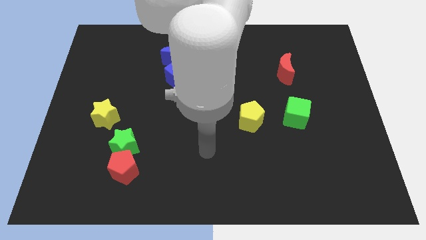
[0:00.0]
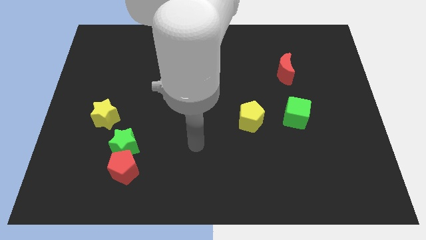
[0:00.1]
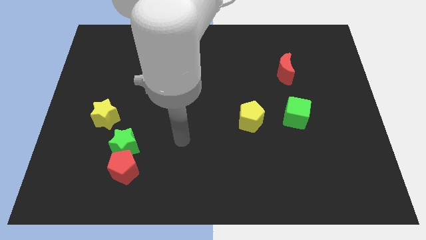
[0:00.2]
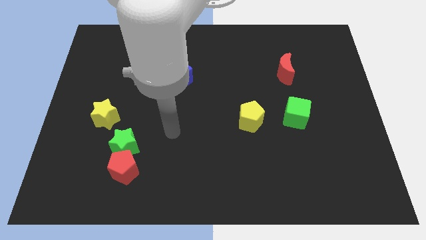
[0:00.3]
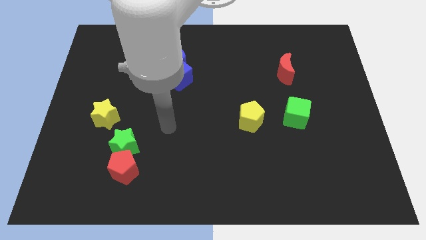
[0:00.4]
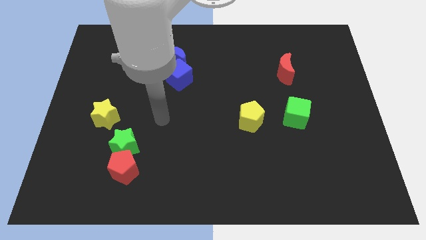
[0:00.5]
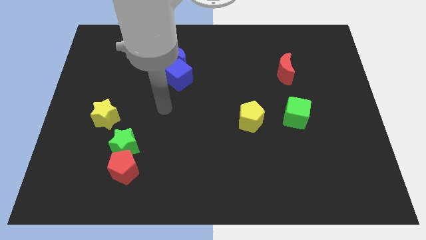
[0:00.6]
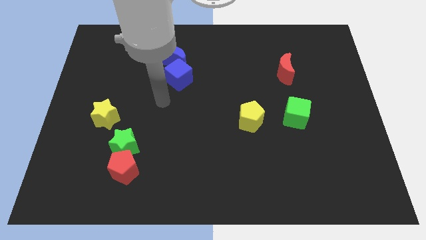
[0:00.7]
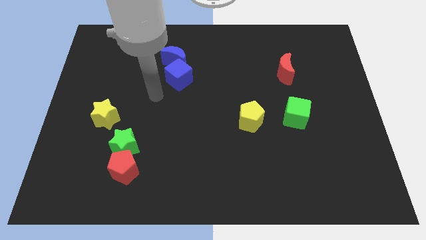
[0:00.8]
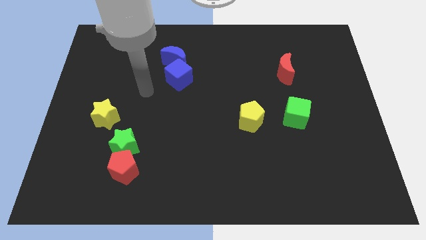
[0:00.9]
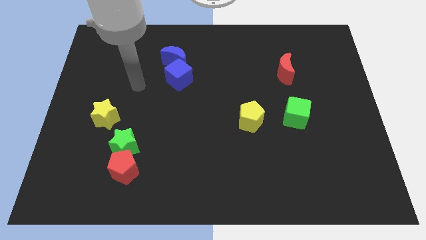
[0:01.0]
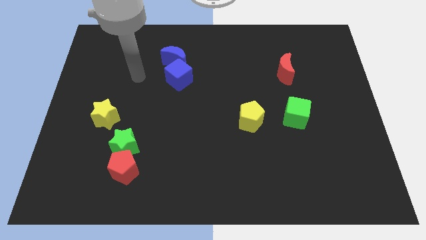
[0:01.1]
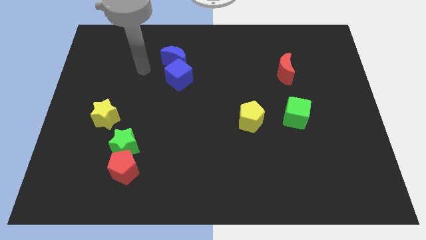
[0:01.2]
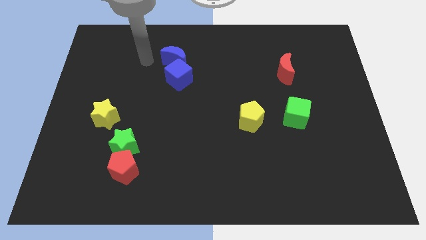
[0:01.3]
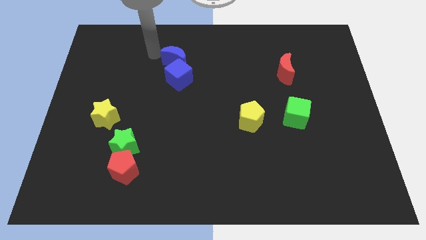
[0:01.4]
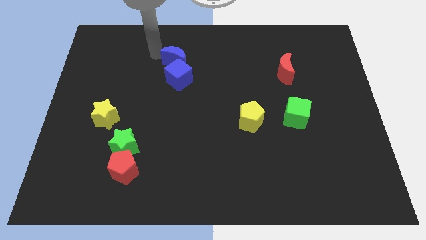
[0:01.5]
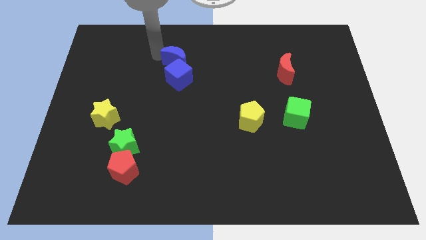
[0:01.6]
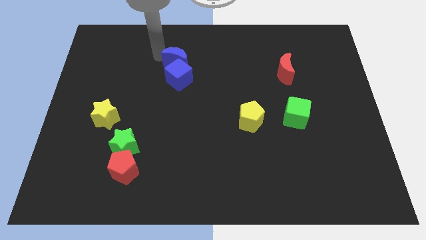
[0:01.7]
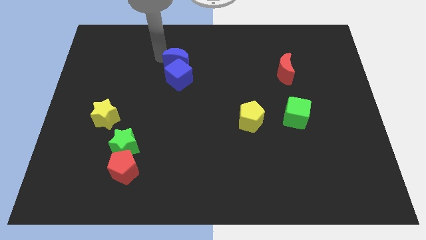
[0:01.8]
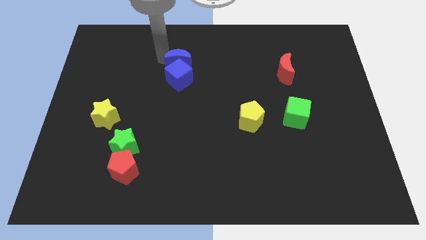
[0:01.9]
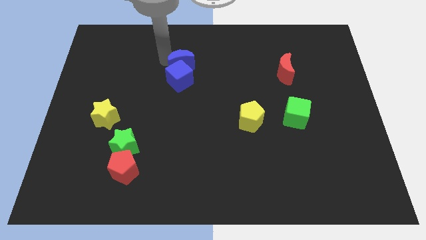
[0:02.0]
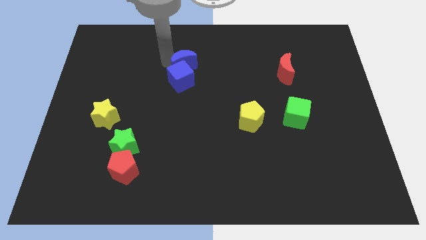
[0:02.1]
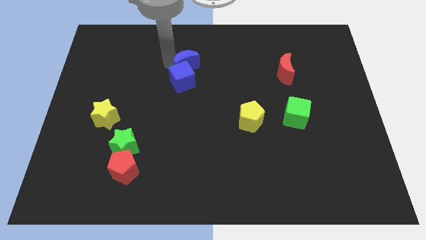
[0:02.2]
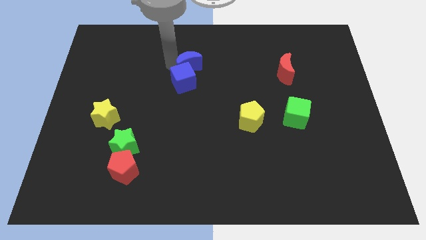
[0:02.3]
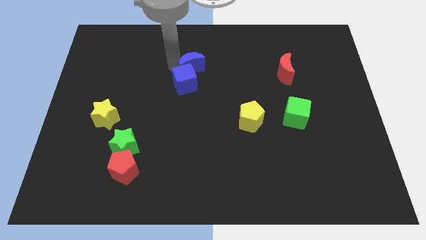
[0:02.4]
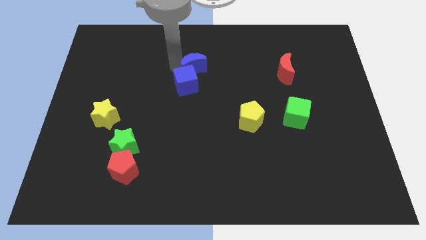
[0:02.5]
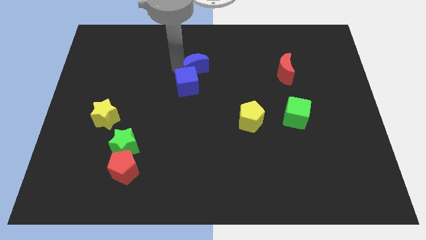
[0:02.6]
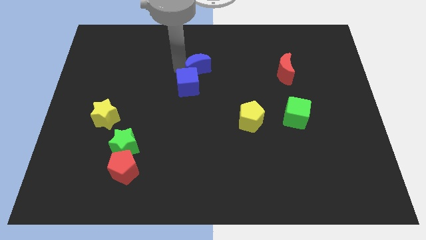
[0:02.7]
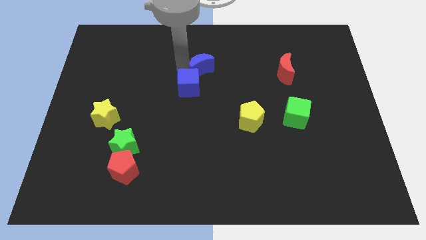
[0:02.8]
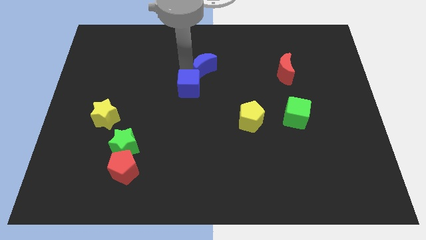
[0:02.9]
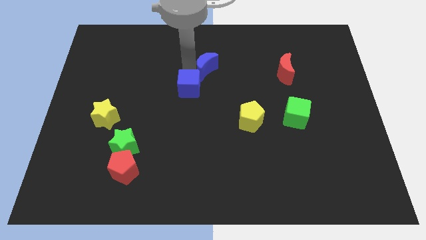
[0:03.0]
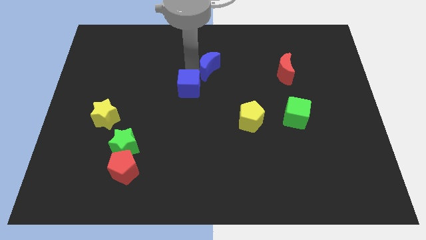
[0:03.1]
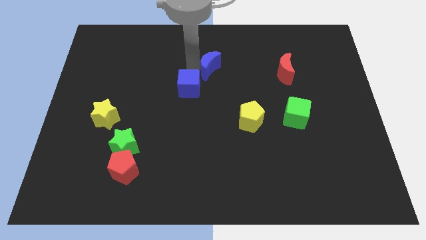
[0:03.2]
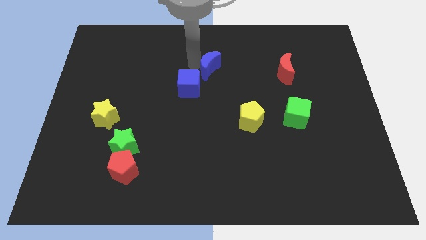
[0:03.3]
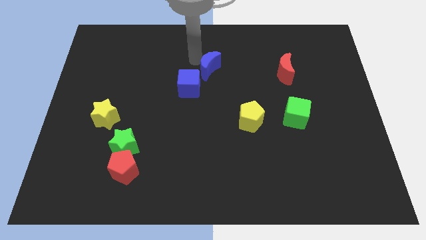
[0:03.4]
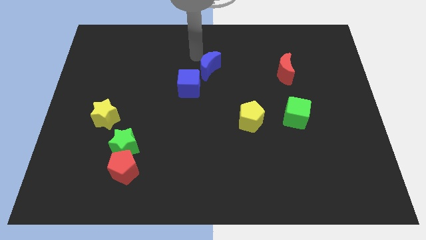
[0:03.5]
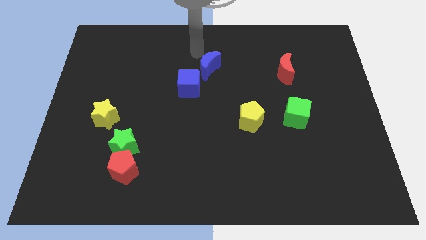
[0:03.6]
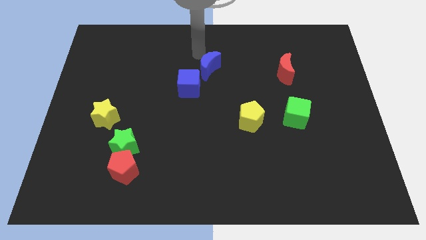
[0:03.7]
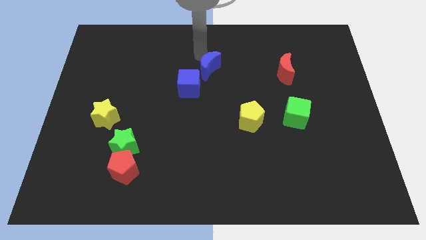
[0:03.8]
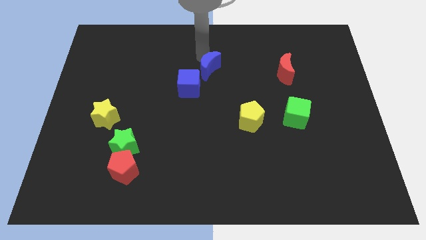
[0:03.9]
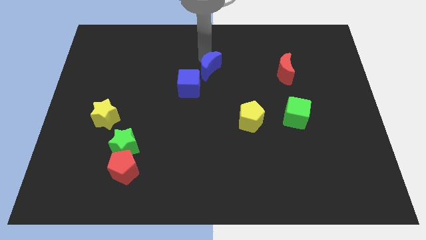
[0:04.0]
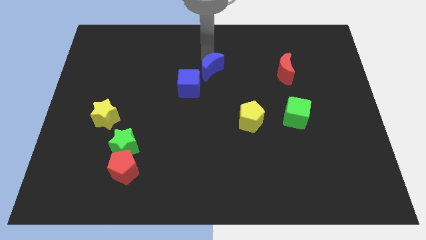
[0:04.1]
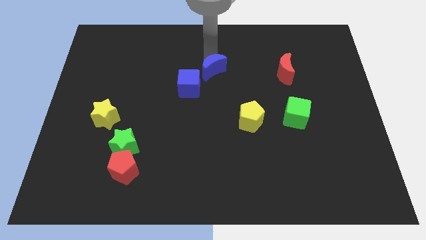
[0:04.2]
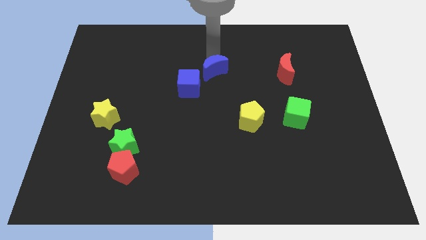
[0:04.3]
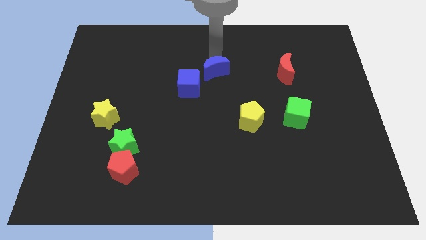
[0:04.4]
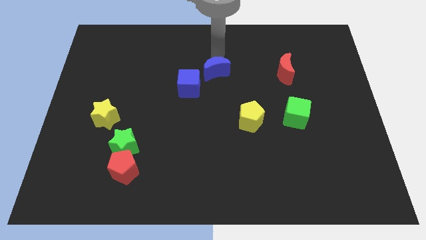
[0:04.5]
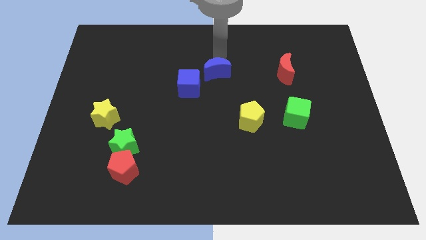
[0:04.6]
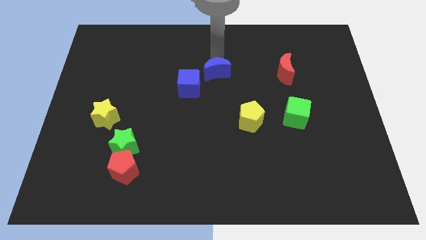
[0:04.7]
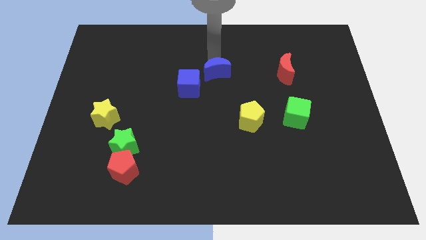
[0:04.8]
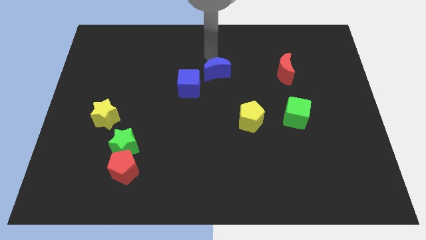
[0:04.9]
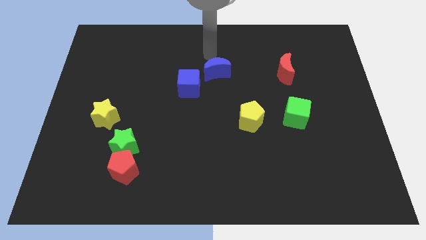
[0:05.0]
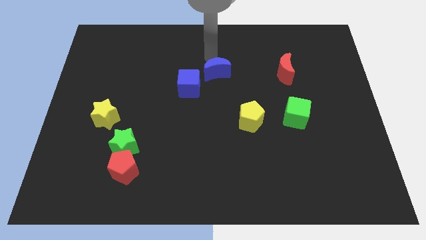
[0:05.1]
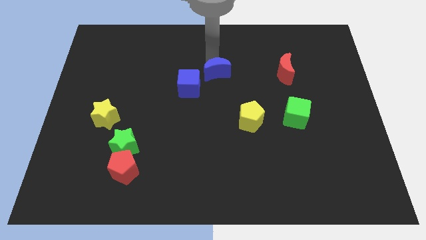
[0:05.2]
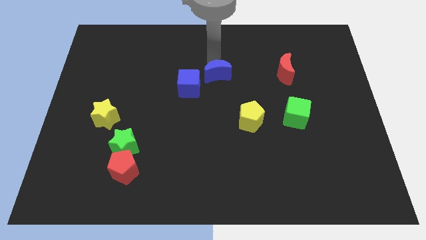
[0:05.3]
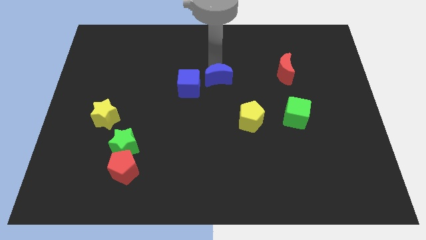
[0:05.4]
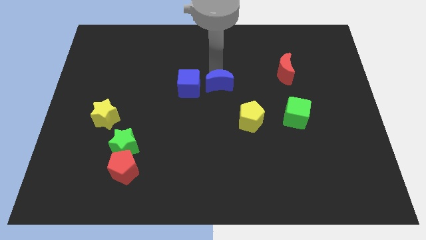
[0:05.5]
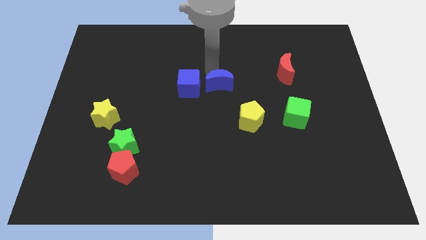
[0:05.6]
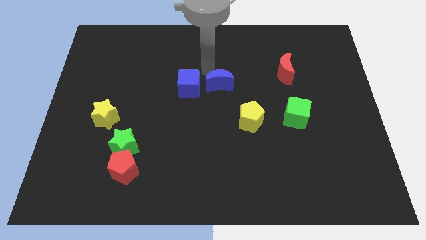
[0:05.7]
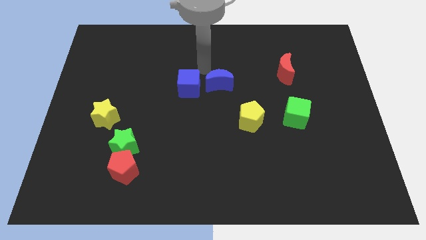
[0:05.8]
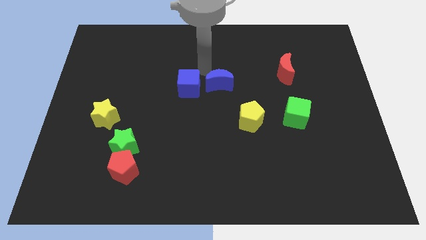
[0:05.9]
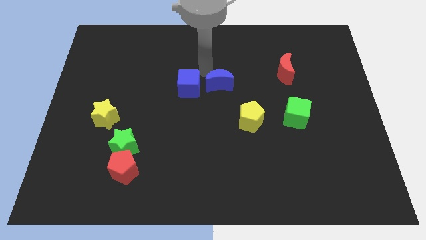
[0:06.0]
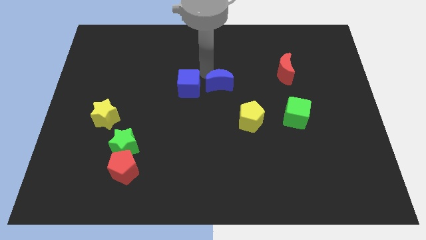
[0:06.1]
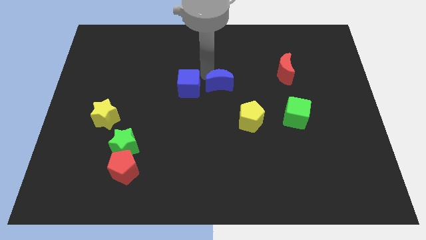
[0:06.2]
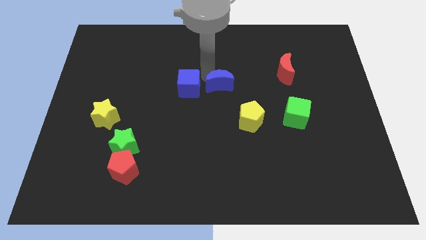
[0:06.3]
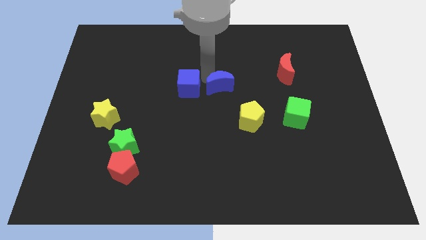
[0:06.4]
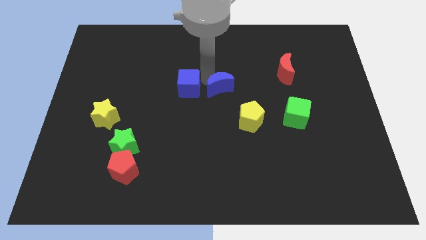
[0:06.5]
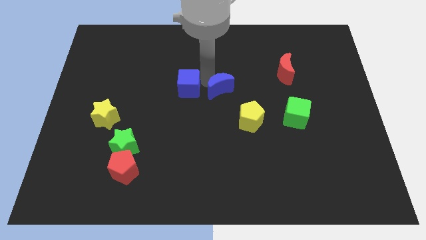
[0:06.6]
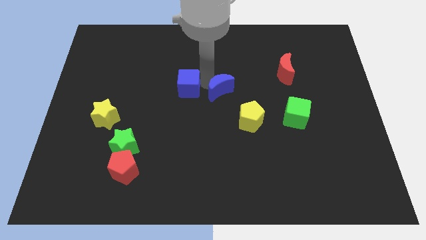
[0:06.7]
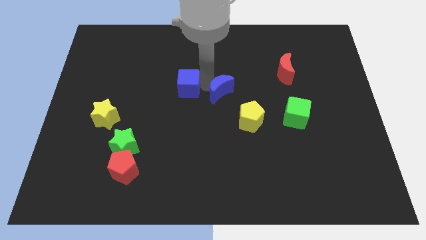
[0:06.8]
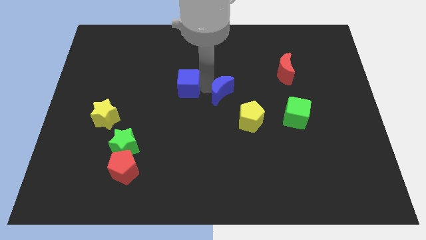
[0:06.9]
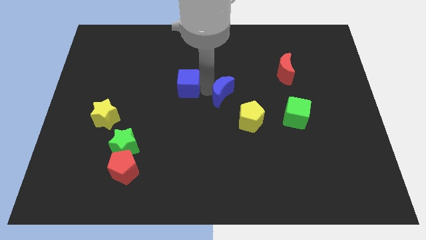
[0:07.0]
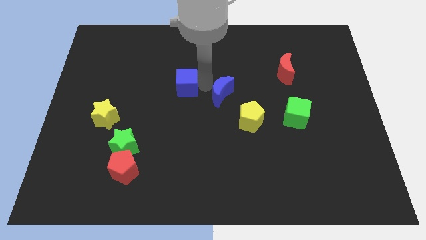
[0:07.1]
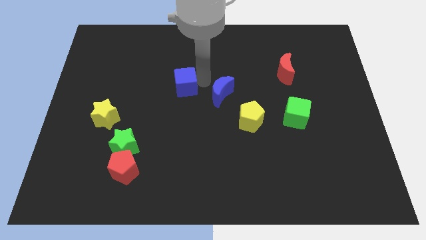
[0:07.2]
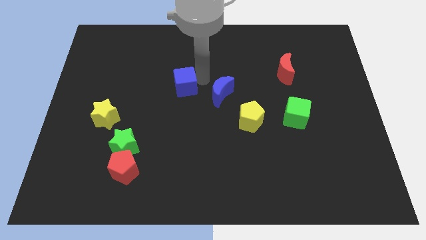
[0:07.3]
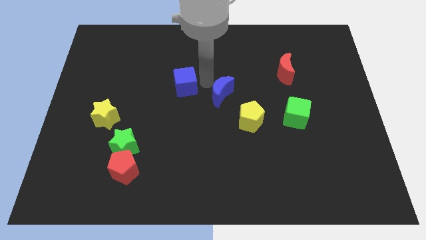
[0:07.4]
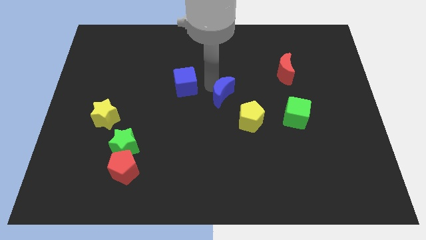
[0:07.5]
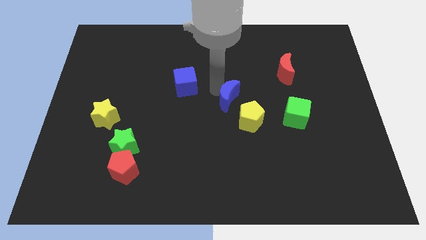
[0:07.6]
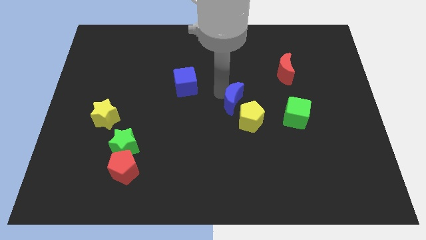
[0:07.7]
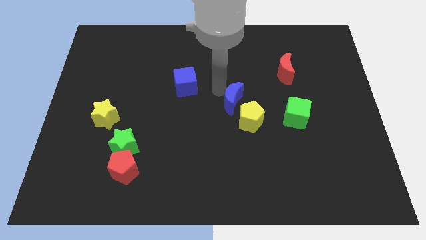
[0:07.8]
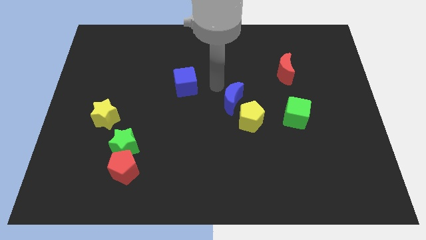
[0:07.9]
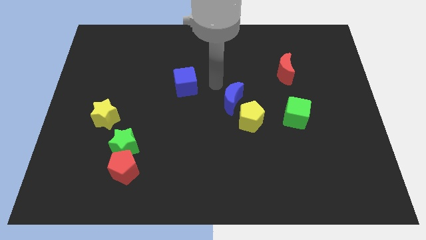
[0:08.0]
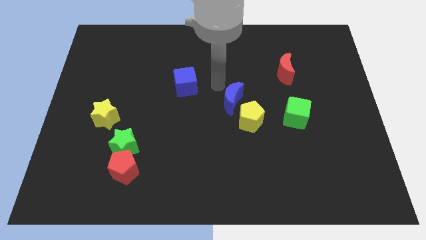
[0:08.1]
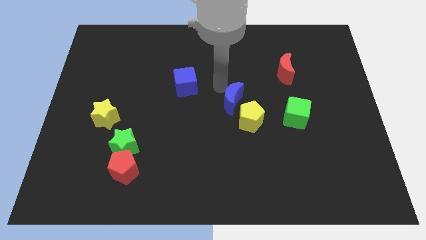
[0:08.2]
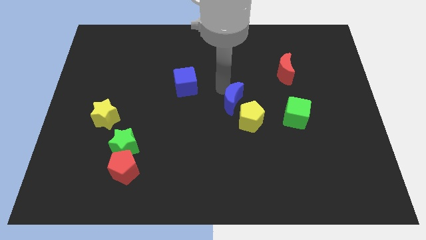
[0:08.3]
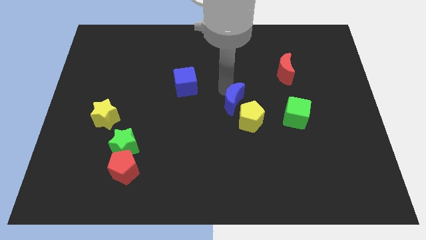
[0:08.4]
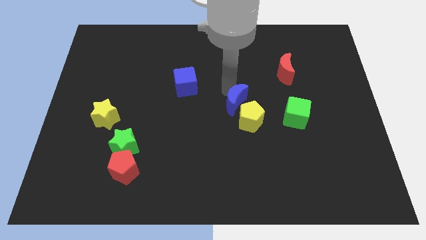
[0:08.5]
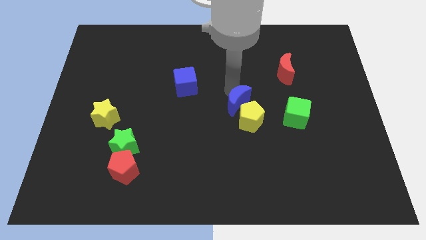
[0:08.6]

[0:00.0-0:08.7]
slide the blue moon next to the yellow pentagon
